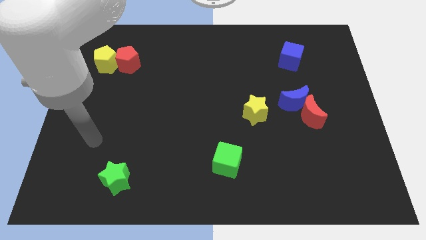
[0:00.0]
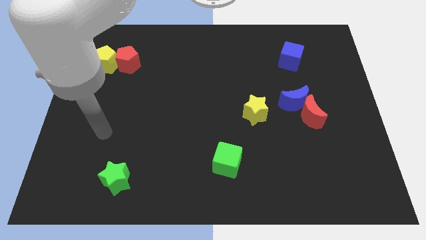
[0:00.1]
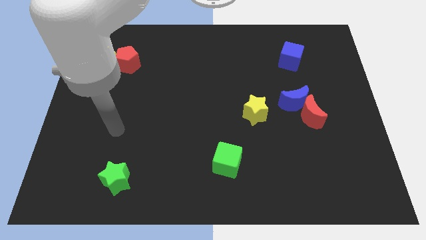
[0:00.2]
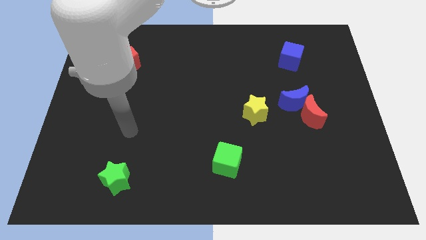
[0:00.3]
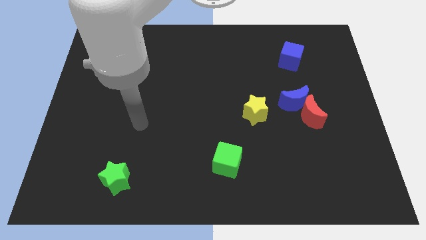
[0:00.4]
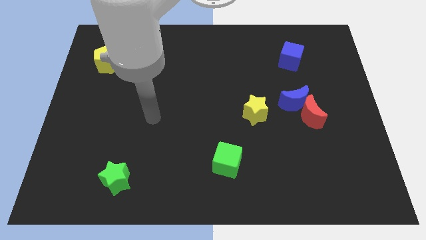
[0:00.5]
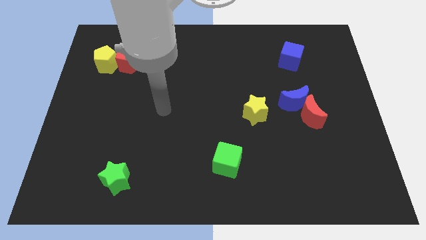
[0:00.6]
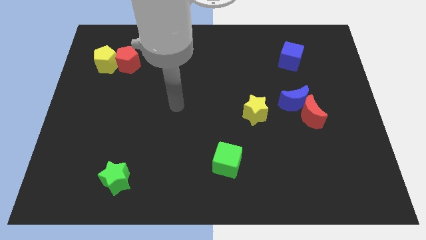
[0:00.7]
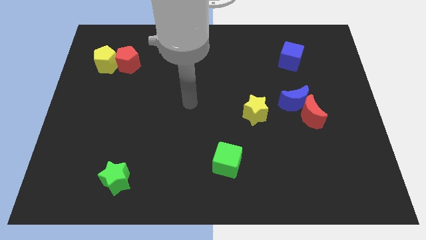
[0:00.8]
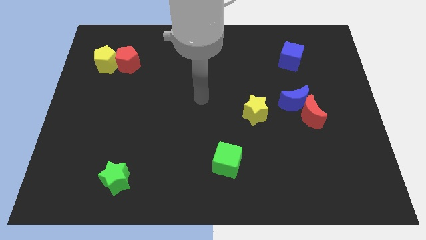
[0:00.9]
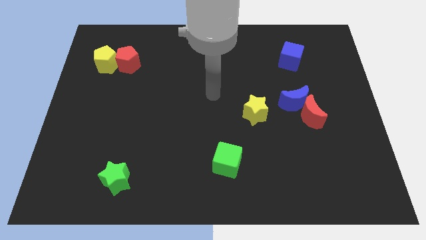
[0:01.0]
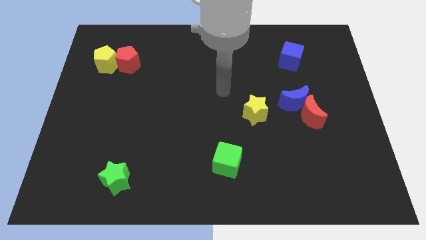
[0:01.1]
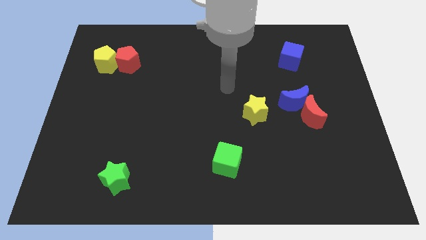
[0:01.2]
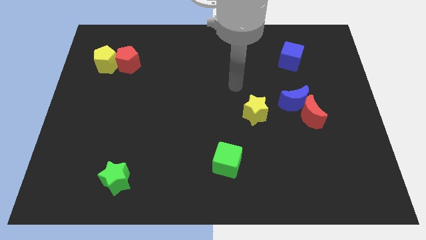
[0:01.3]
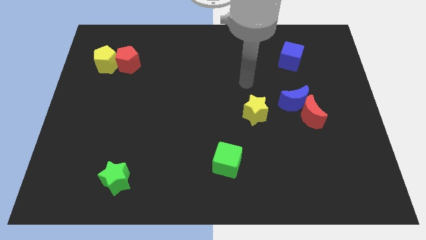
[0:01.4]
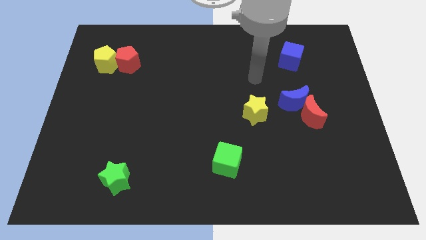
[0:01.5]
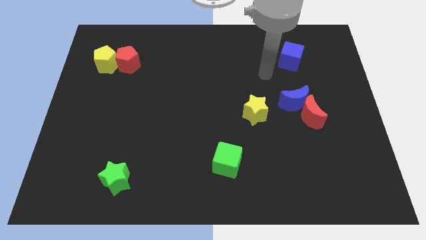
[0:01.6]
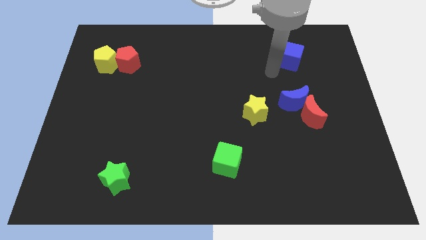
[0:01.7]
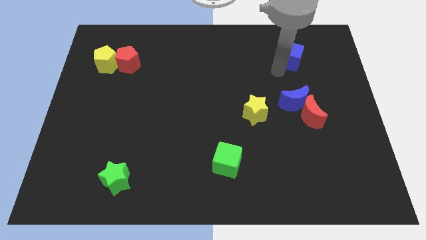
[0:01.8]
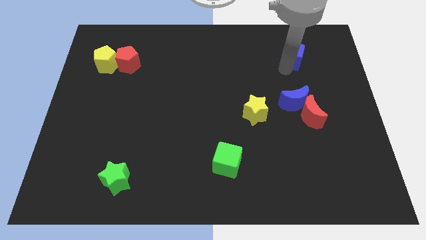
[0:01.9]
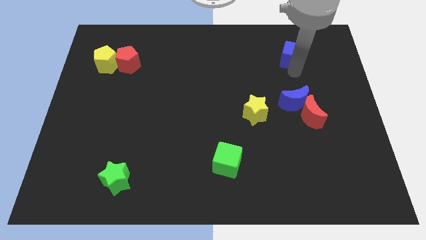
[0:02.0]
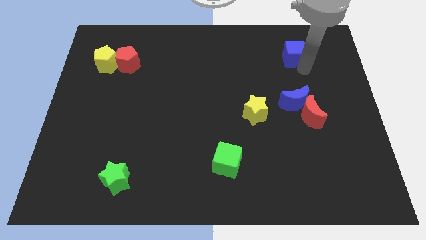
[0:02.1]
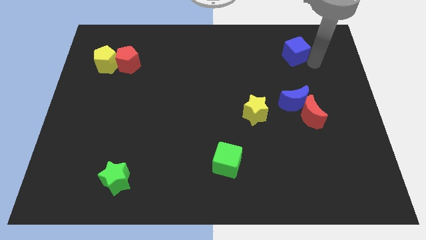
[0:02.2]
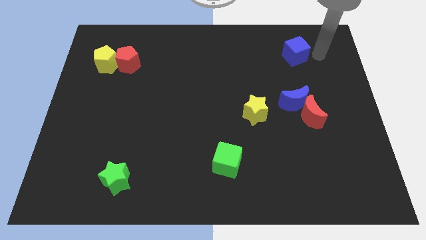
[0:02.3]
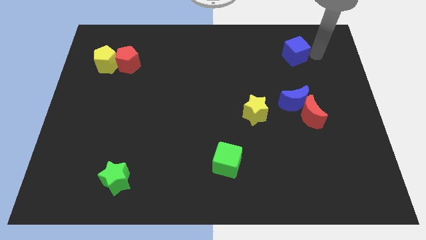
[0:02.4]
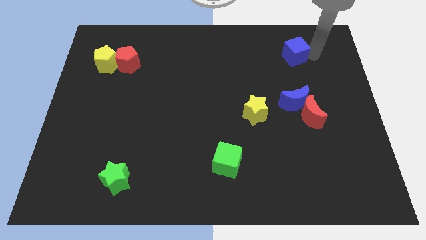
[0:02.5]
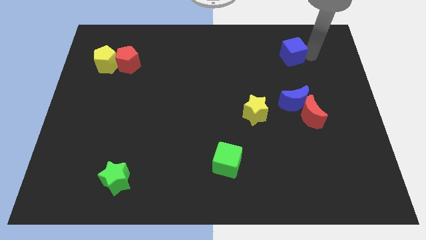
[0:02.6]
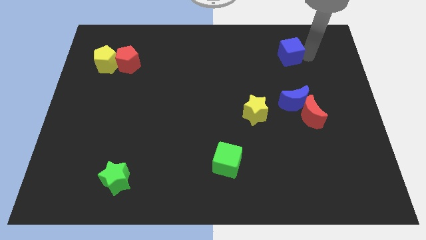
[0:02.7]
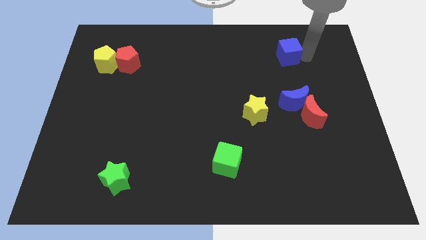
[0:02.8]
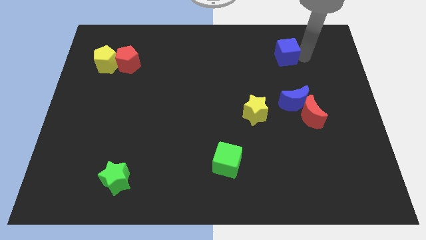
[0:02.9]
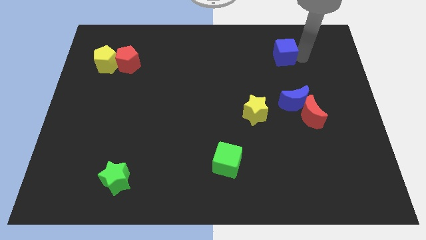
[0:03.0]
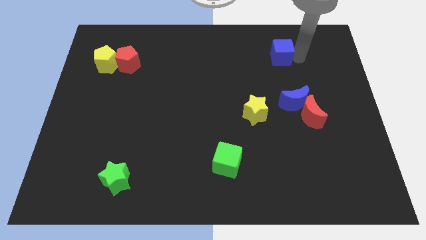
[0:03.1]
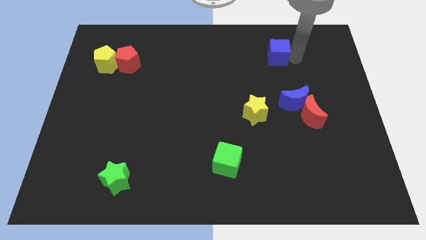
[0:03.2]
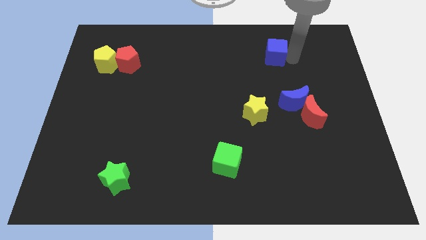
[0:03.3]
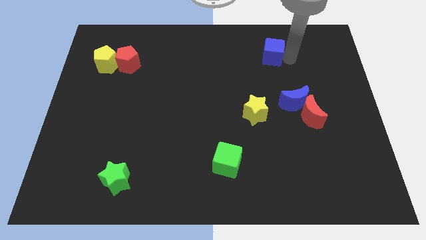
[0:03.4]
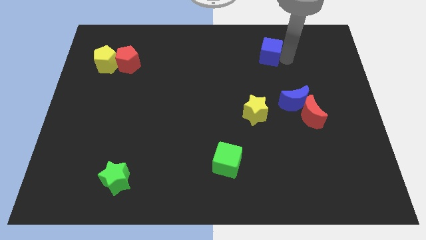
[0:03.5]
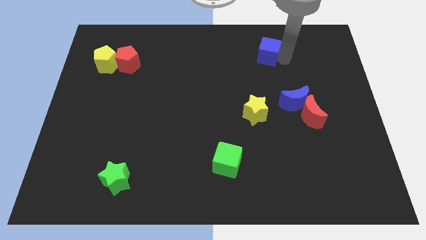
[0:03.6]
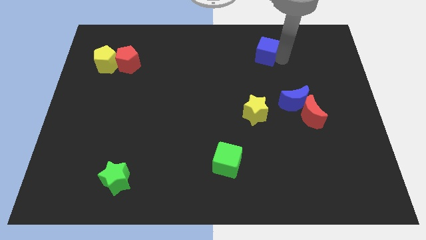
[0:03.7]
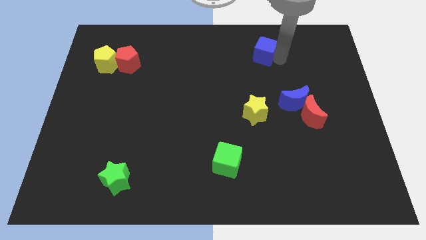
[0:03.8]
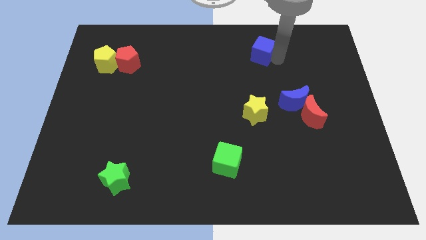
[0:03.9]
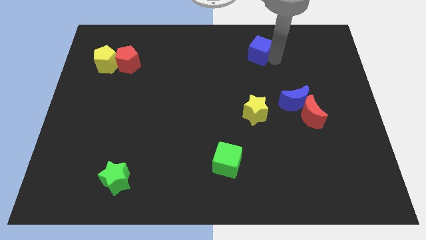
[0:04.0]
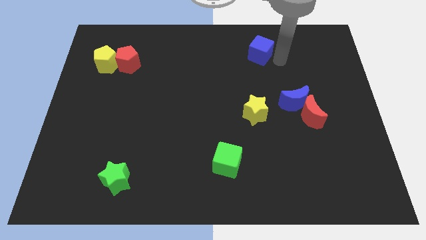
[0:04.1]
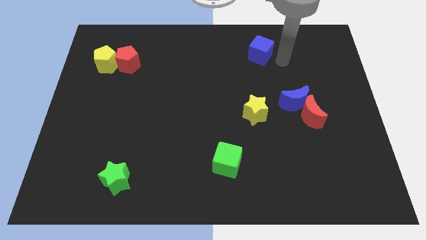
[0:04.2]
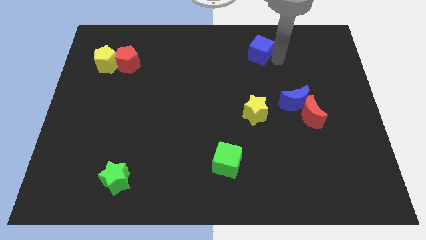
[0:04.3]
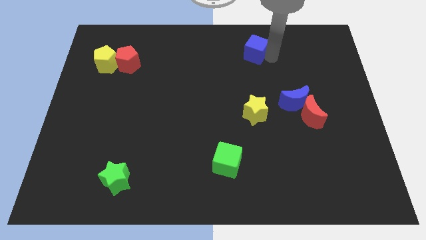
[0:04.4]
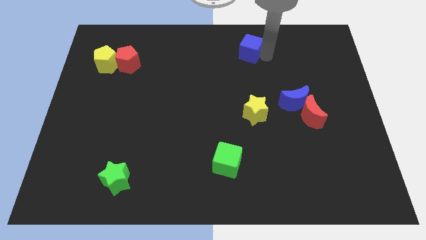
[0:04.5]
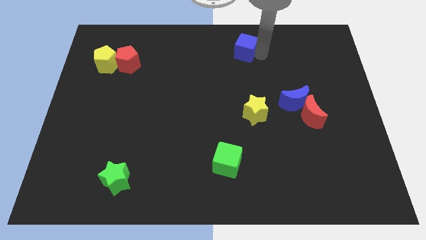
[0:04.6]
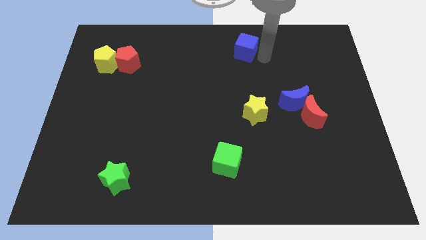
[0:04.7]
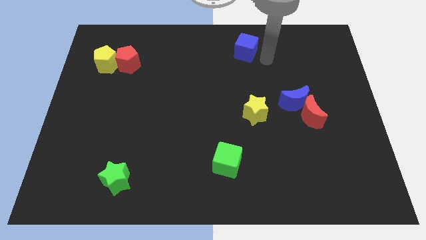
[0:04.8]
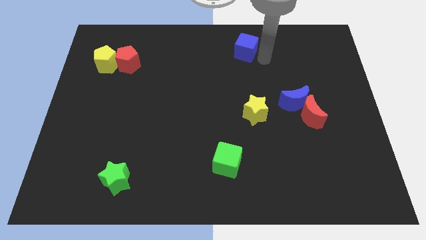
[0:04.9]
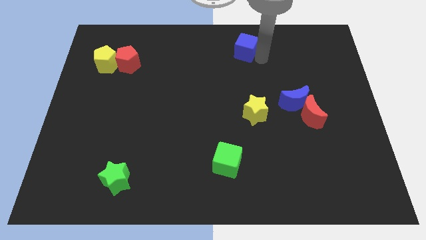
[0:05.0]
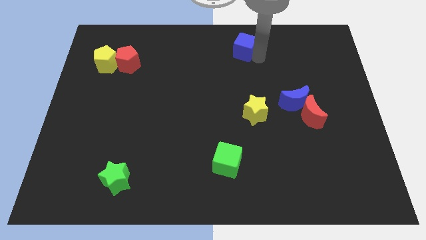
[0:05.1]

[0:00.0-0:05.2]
slide the blue cube to the top side

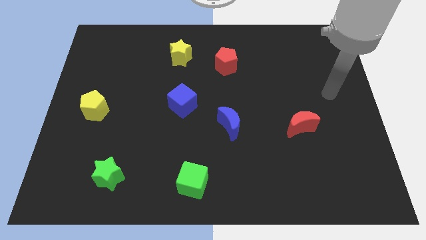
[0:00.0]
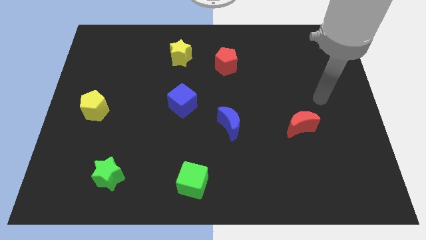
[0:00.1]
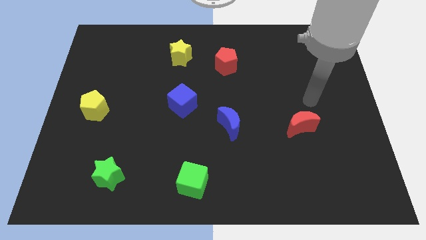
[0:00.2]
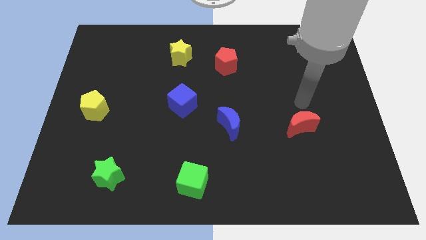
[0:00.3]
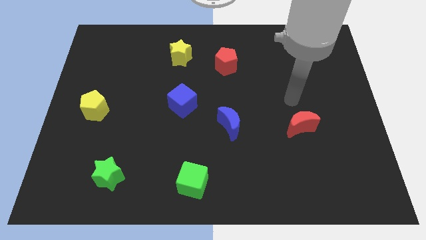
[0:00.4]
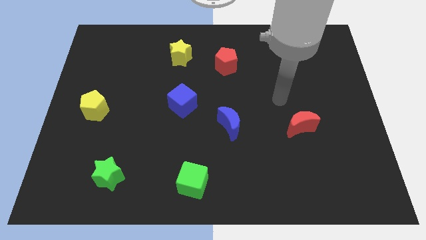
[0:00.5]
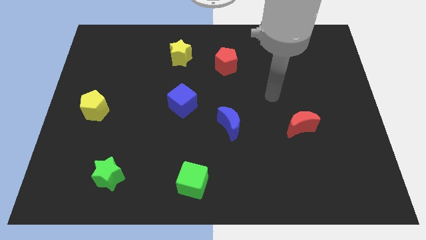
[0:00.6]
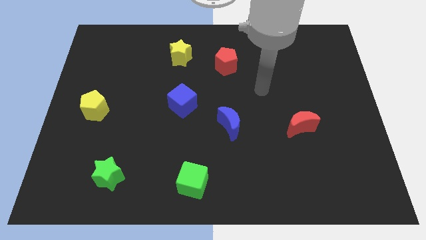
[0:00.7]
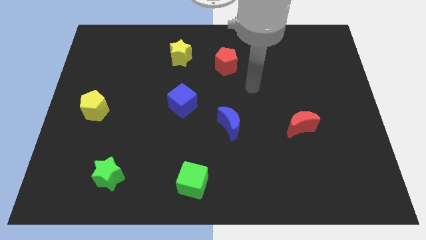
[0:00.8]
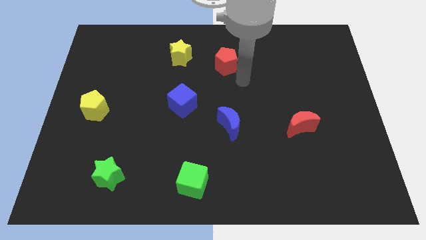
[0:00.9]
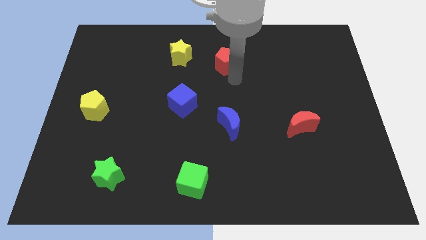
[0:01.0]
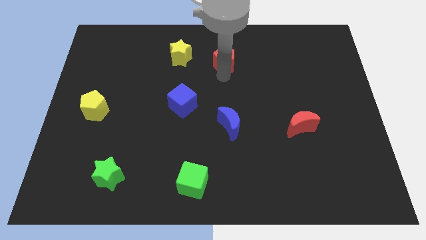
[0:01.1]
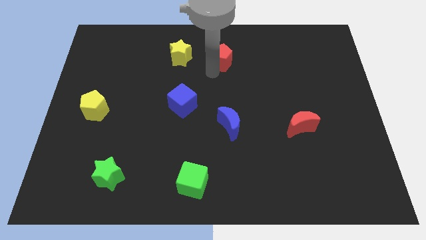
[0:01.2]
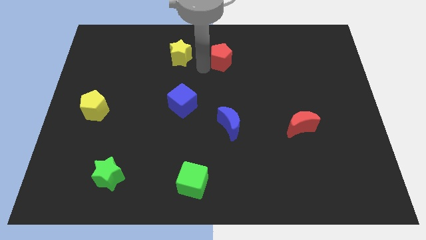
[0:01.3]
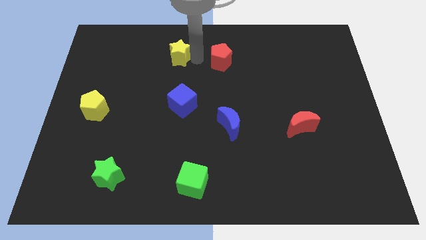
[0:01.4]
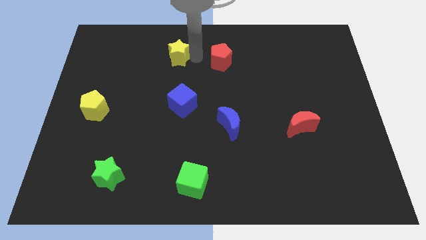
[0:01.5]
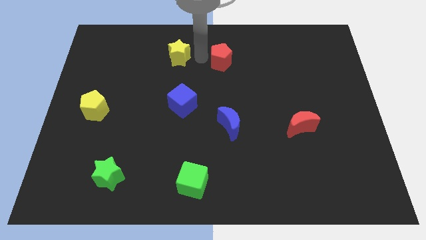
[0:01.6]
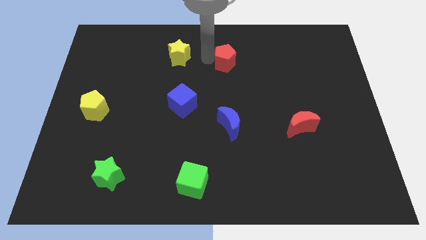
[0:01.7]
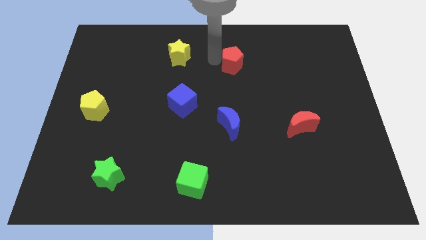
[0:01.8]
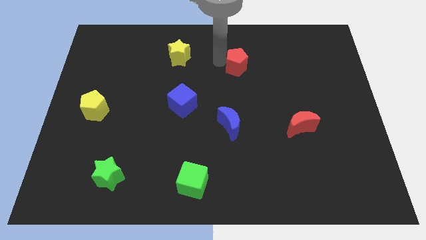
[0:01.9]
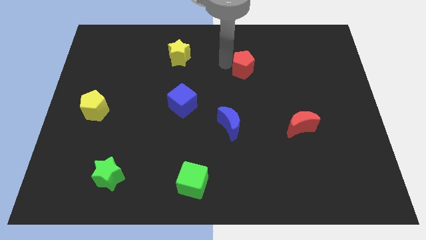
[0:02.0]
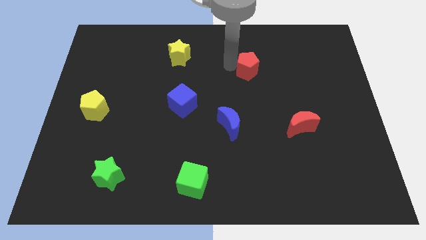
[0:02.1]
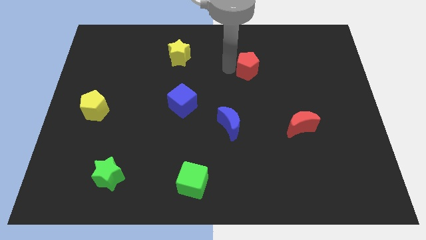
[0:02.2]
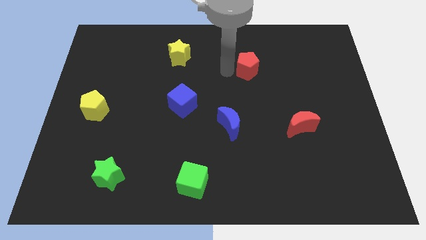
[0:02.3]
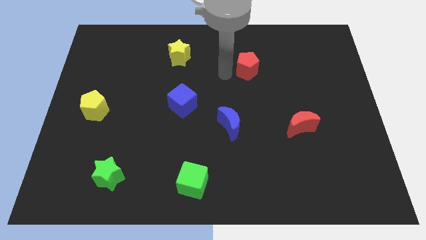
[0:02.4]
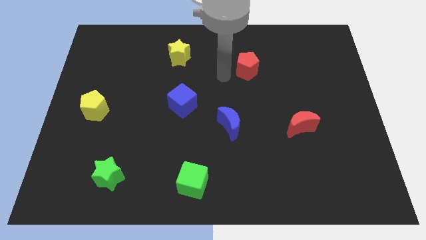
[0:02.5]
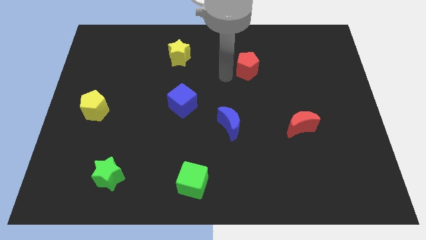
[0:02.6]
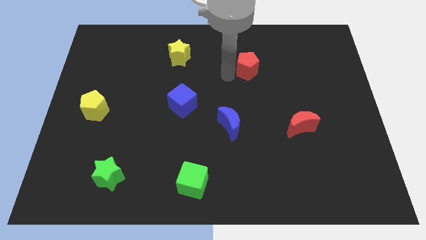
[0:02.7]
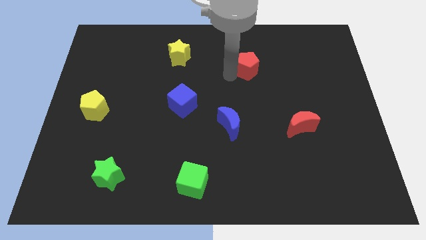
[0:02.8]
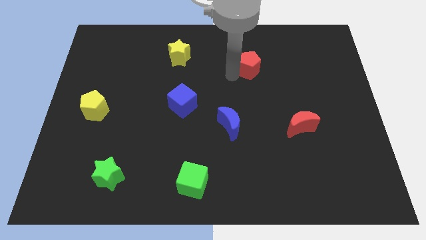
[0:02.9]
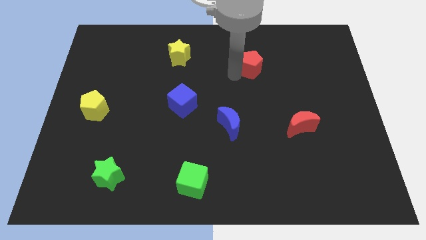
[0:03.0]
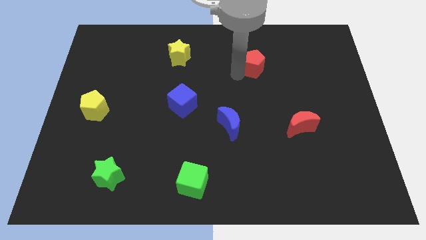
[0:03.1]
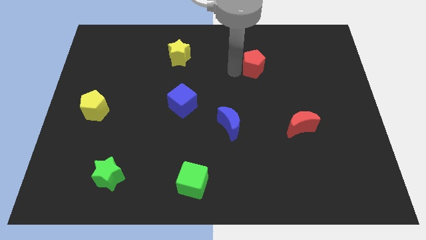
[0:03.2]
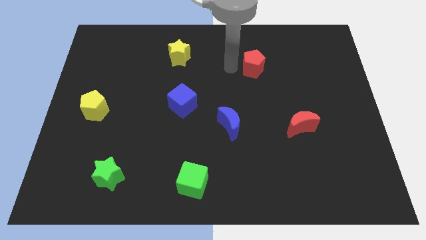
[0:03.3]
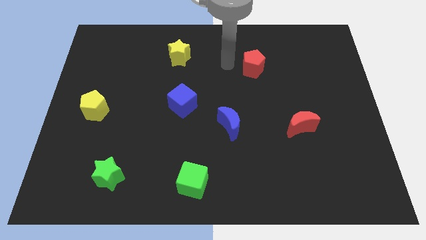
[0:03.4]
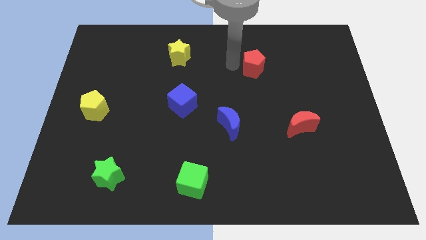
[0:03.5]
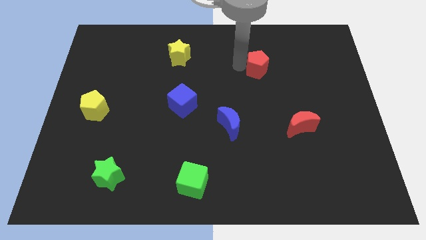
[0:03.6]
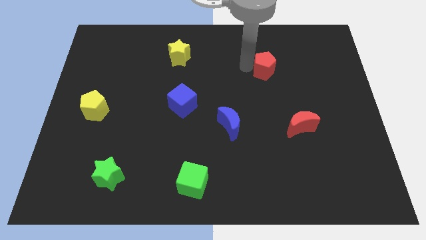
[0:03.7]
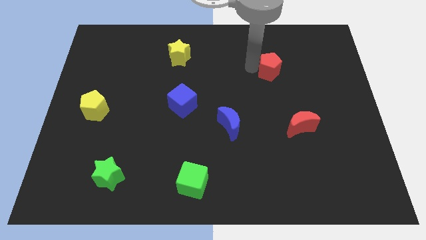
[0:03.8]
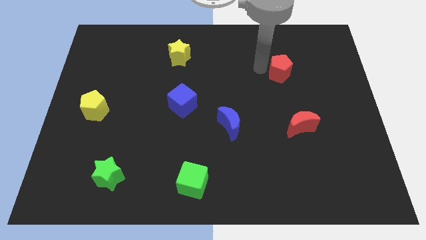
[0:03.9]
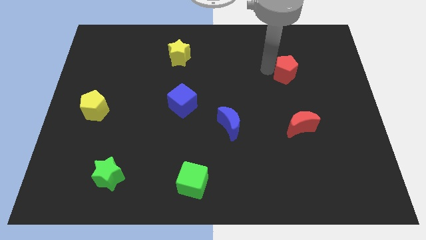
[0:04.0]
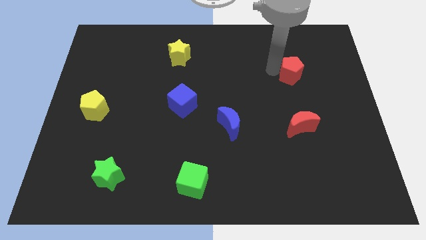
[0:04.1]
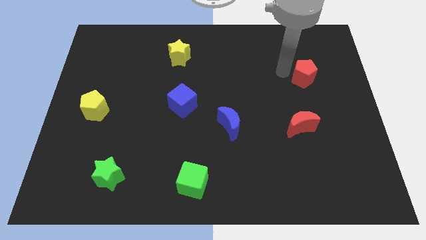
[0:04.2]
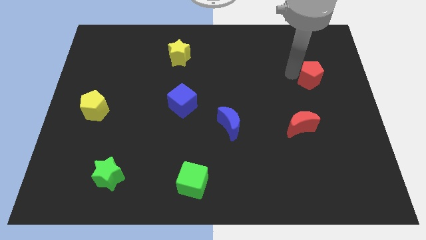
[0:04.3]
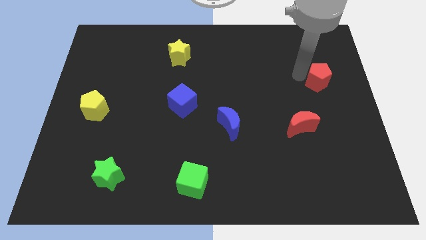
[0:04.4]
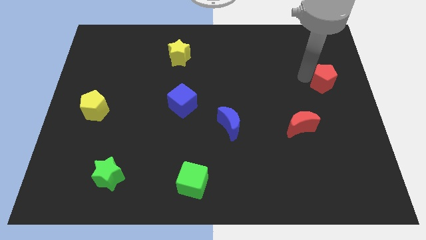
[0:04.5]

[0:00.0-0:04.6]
push the red pentagon to the right side
